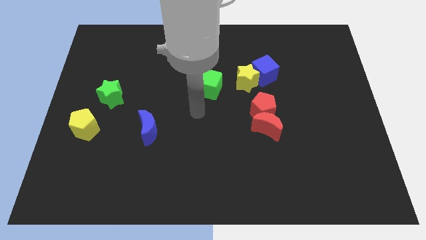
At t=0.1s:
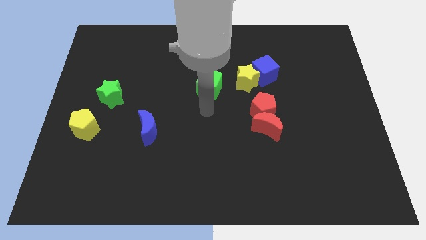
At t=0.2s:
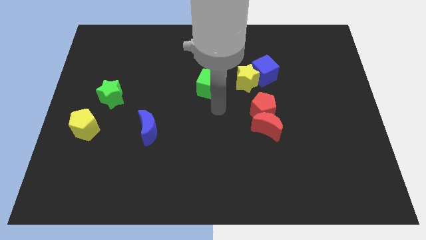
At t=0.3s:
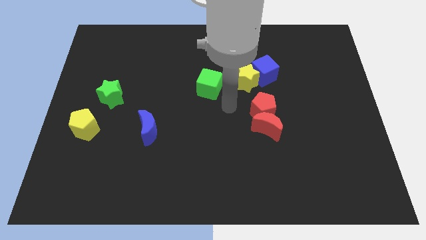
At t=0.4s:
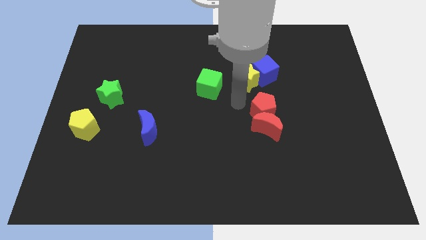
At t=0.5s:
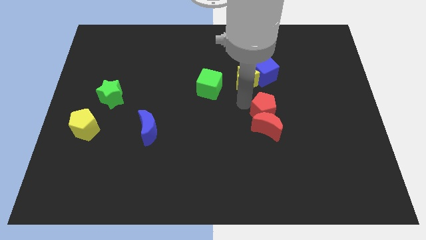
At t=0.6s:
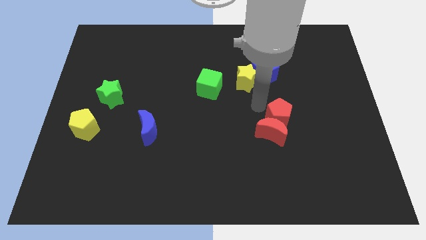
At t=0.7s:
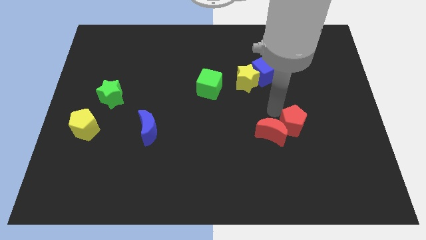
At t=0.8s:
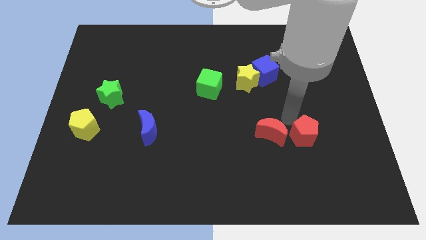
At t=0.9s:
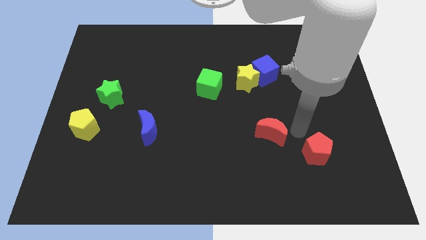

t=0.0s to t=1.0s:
move the red moon away from the red pentagon

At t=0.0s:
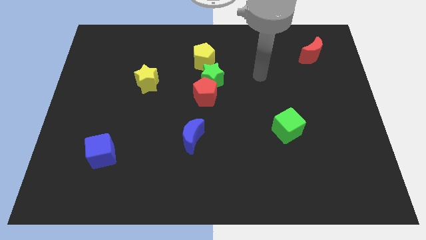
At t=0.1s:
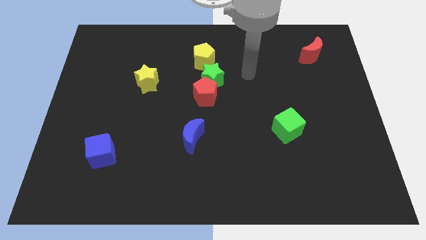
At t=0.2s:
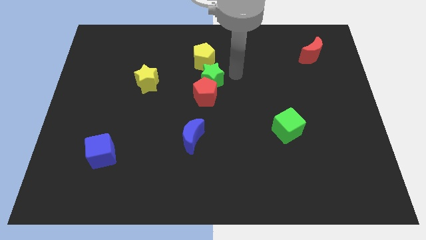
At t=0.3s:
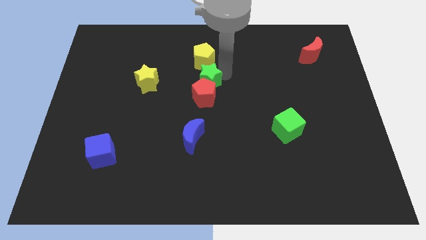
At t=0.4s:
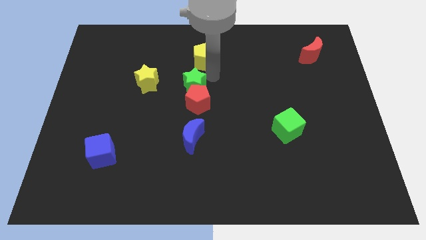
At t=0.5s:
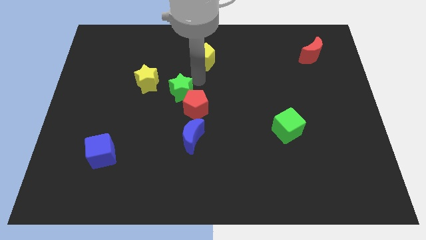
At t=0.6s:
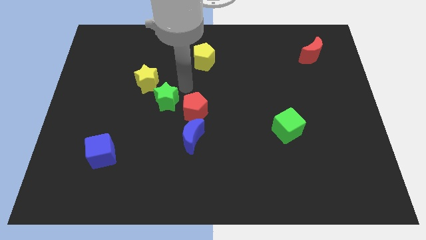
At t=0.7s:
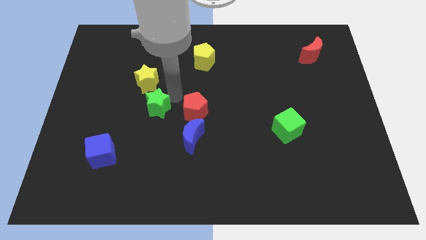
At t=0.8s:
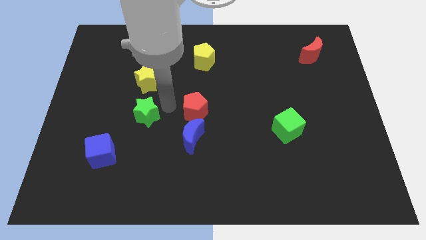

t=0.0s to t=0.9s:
separate the red pentagon from the green star

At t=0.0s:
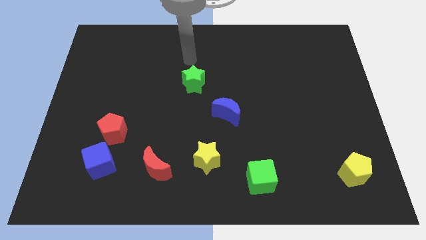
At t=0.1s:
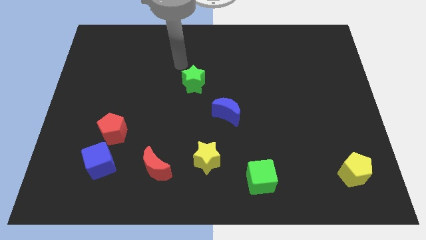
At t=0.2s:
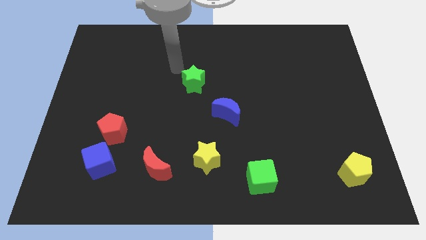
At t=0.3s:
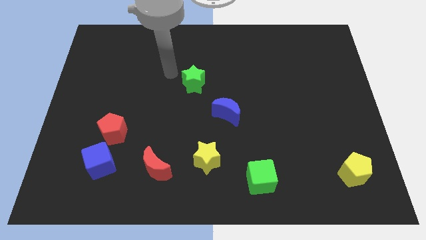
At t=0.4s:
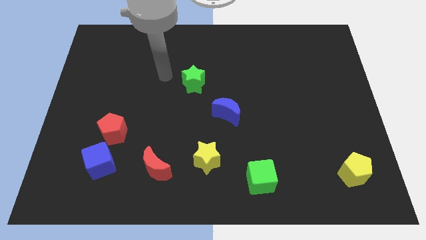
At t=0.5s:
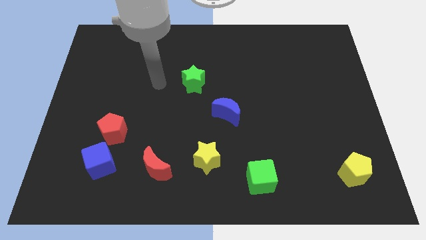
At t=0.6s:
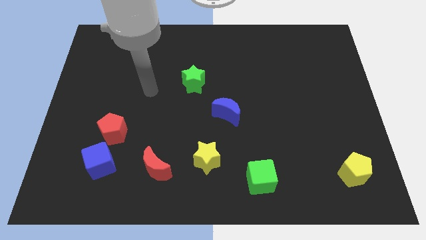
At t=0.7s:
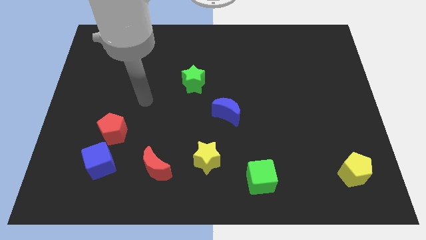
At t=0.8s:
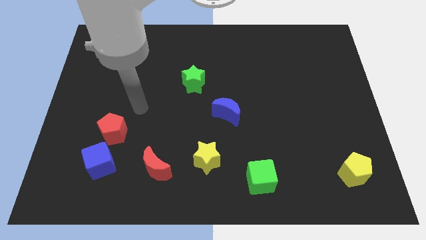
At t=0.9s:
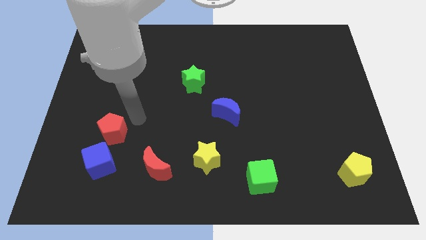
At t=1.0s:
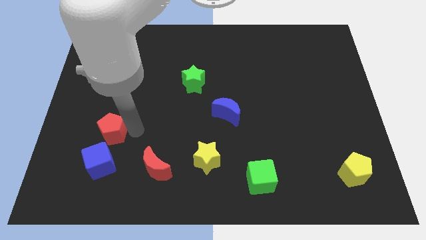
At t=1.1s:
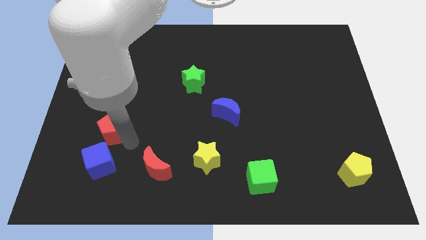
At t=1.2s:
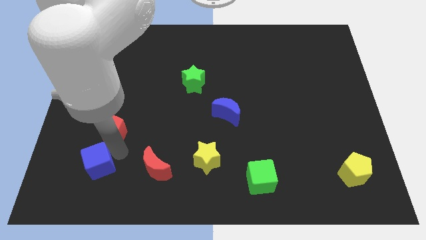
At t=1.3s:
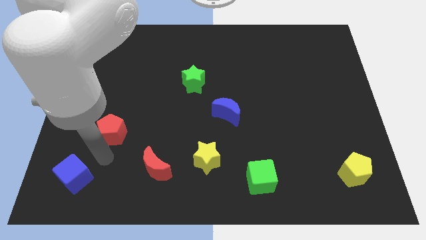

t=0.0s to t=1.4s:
separate the red pentagon from the blue cube

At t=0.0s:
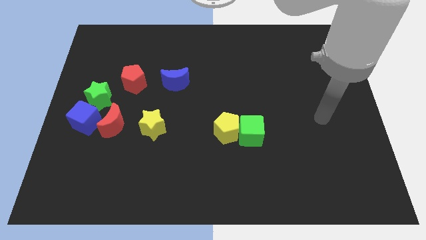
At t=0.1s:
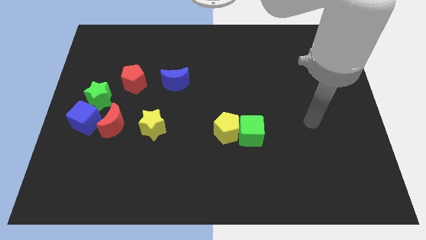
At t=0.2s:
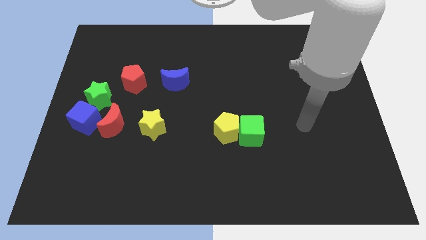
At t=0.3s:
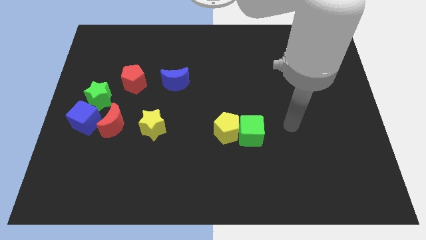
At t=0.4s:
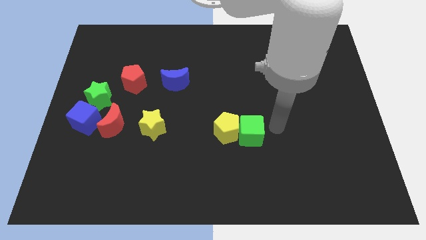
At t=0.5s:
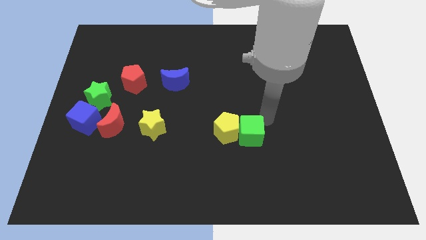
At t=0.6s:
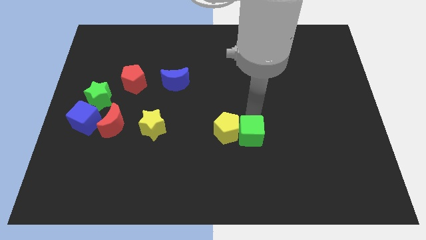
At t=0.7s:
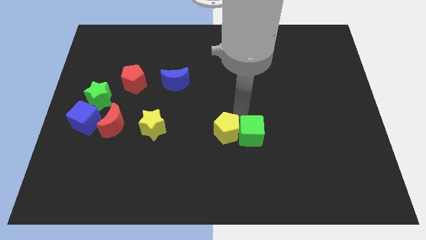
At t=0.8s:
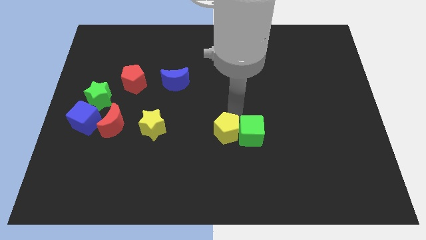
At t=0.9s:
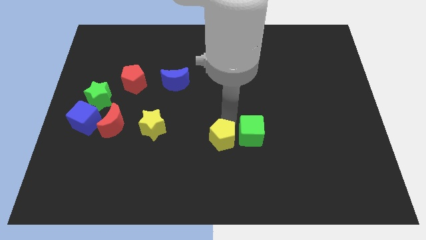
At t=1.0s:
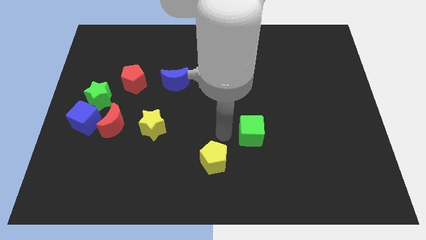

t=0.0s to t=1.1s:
separate the green cube from the yellow pentagon

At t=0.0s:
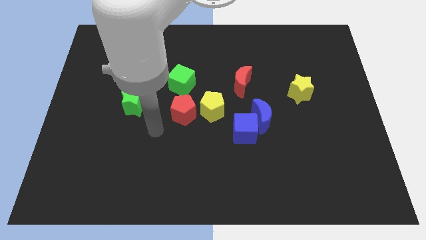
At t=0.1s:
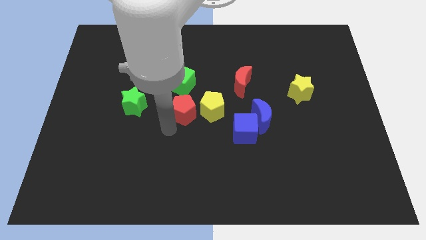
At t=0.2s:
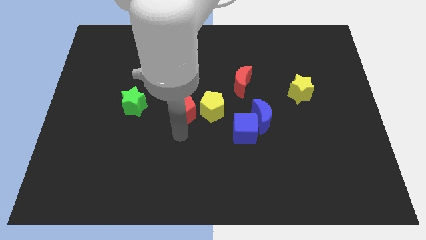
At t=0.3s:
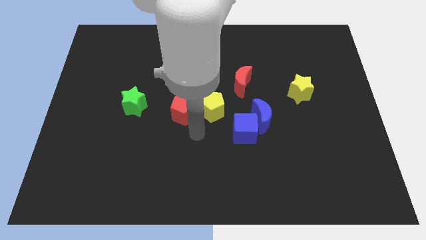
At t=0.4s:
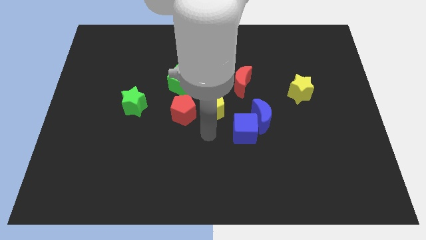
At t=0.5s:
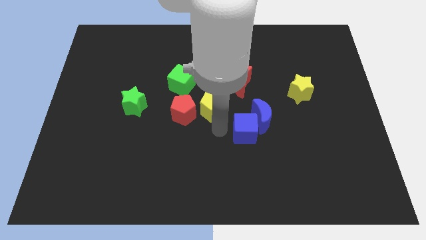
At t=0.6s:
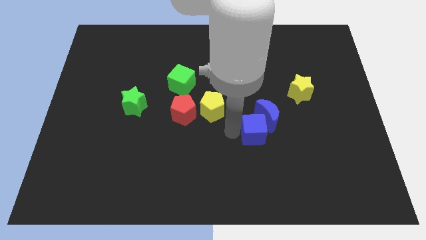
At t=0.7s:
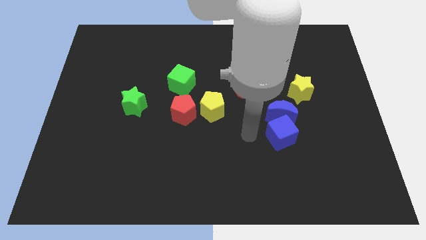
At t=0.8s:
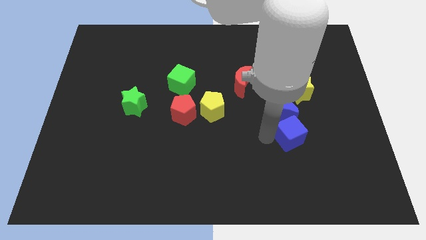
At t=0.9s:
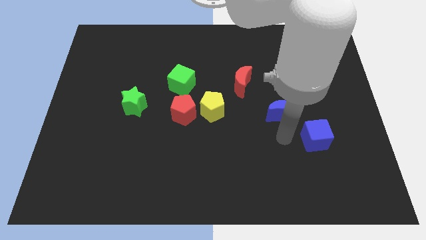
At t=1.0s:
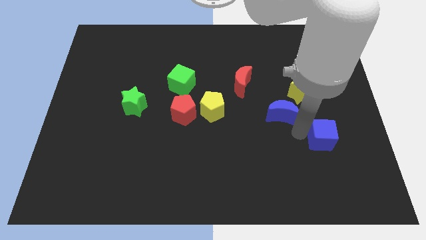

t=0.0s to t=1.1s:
separate the blue moon from the blue cube

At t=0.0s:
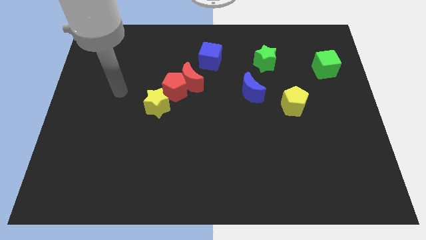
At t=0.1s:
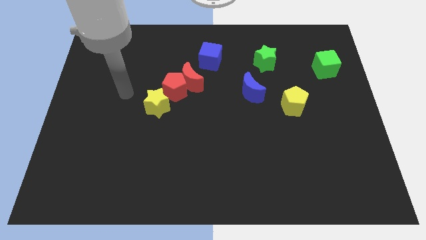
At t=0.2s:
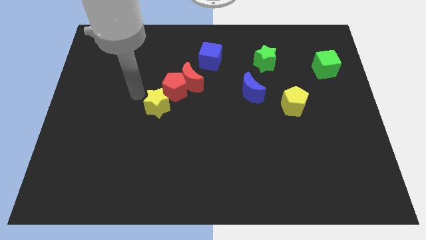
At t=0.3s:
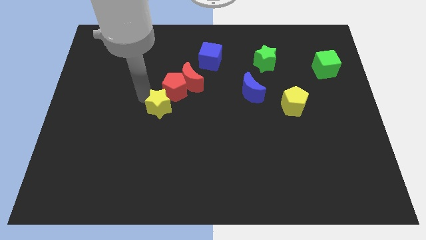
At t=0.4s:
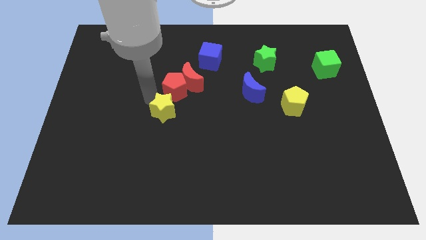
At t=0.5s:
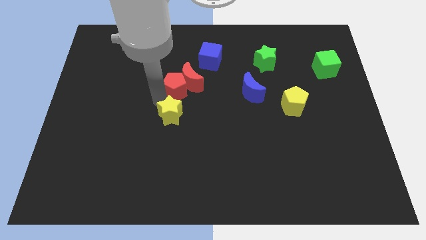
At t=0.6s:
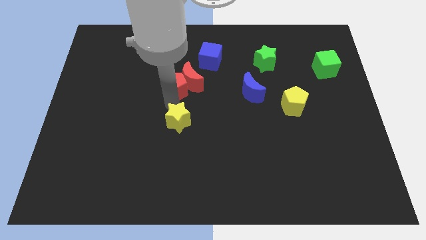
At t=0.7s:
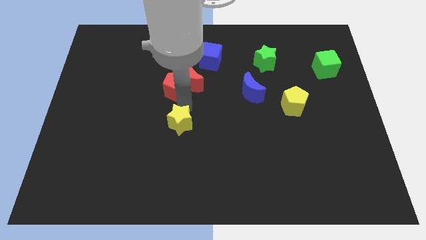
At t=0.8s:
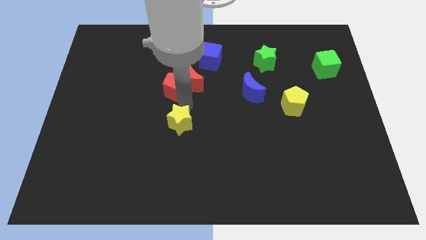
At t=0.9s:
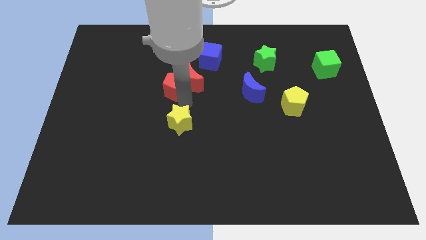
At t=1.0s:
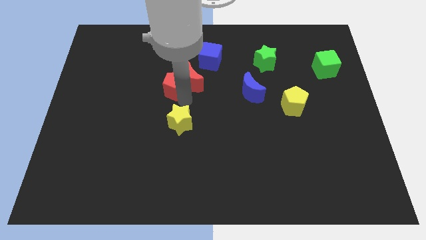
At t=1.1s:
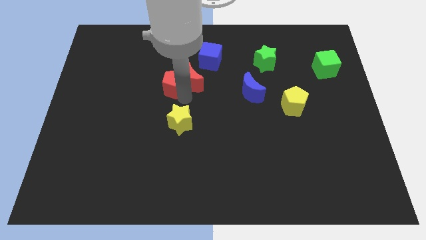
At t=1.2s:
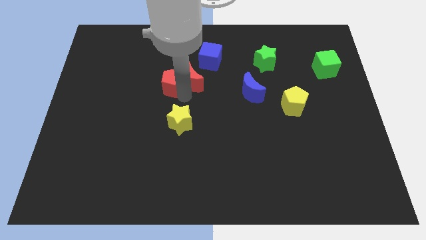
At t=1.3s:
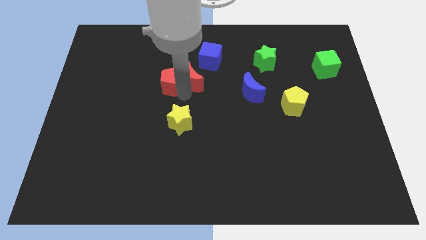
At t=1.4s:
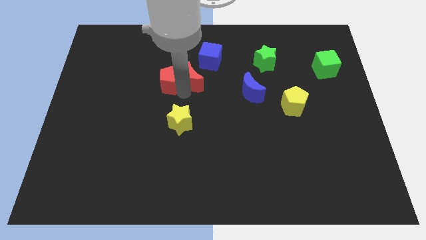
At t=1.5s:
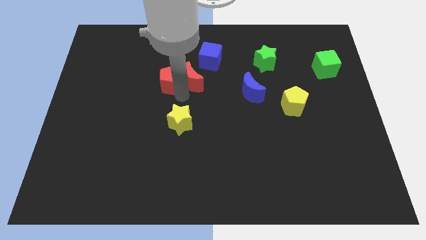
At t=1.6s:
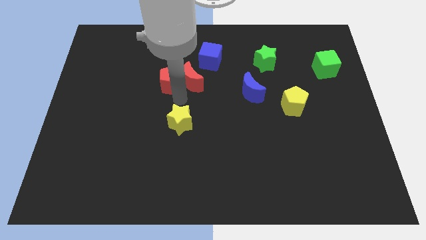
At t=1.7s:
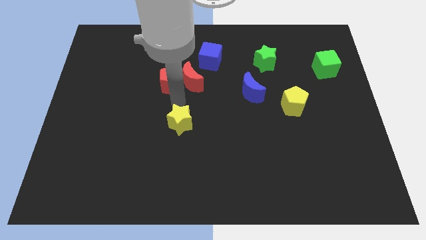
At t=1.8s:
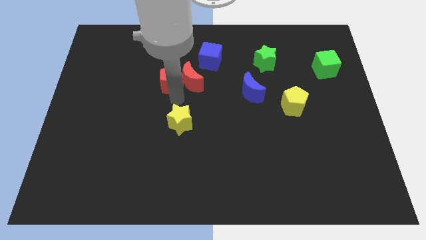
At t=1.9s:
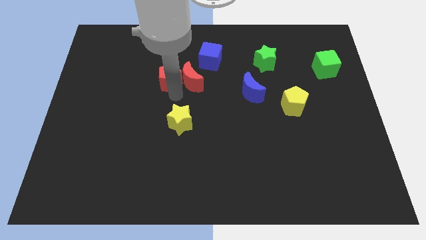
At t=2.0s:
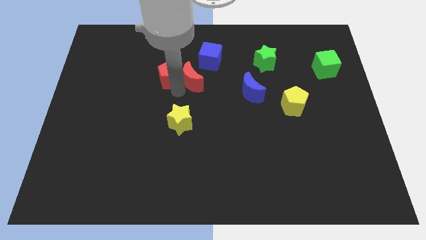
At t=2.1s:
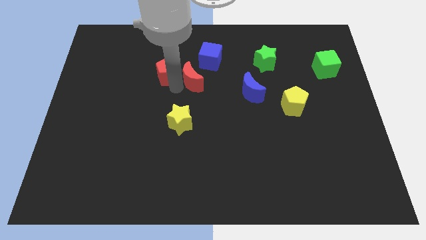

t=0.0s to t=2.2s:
move the red pentagon away from the red moon and yellow star

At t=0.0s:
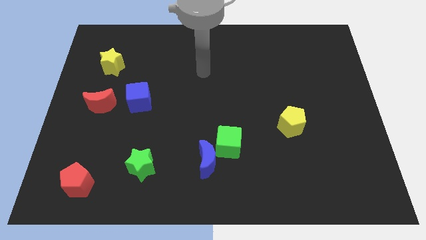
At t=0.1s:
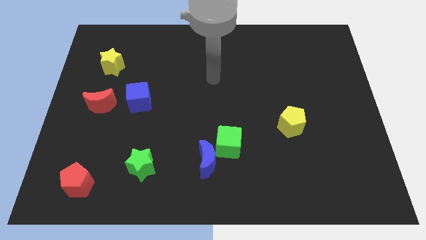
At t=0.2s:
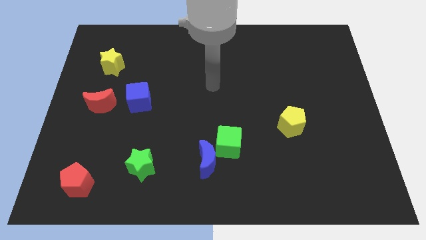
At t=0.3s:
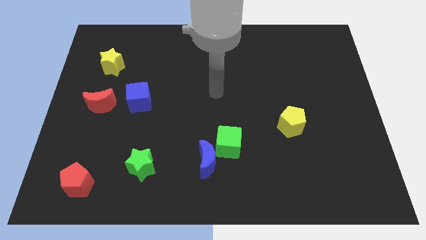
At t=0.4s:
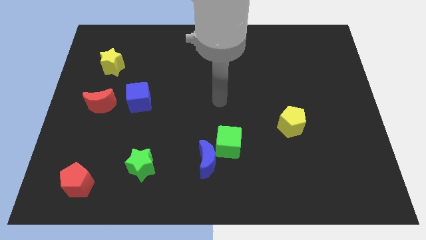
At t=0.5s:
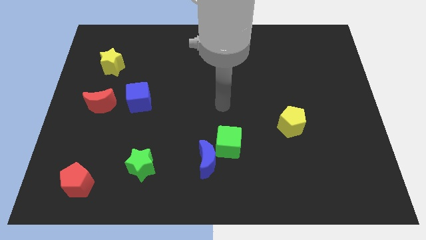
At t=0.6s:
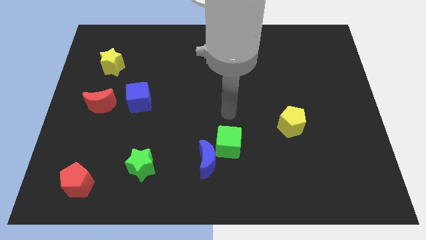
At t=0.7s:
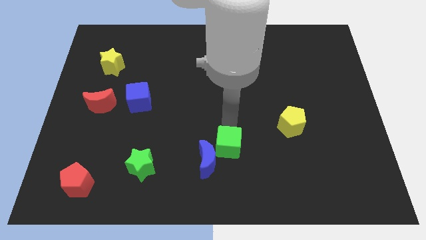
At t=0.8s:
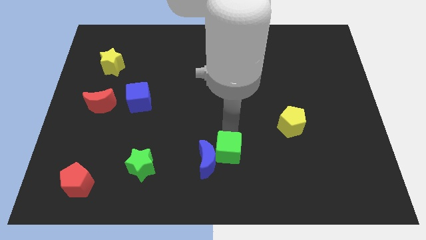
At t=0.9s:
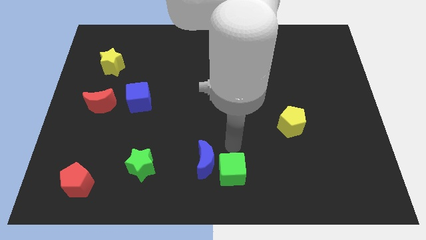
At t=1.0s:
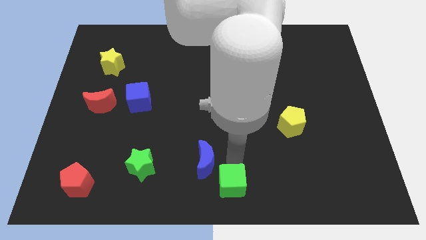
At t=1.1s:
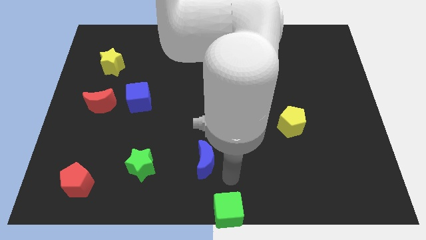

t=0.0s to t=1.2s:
separate the blue moon from the green cube

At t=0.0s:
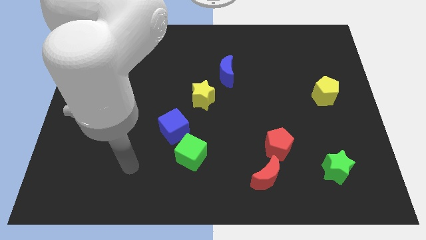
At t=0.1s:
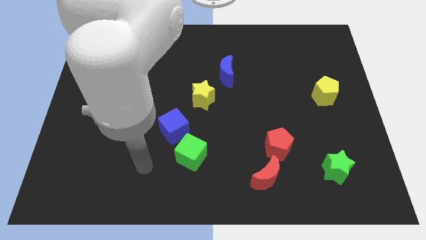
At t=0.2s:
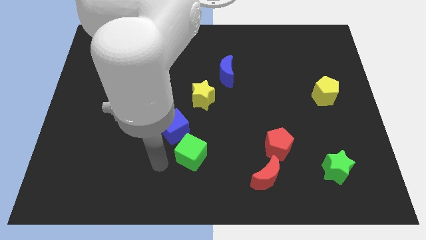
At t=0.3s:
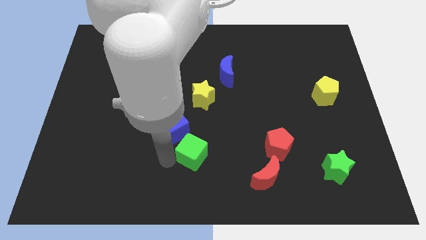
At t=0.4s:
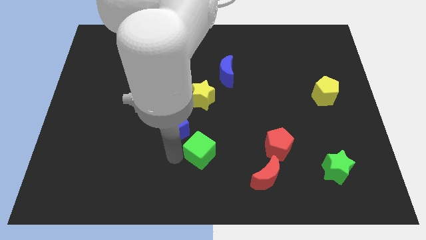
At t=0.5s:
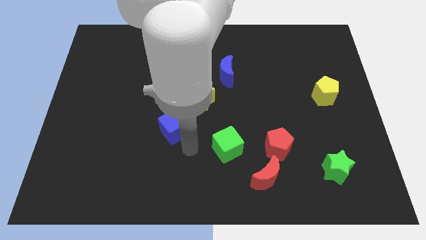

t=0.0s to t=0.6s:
move the blue cube away from the green cube
